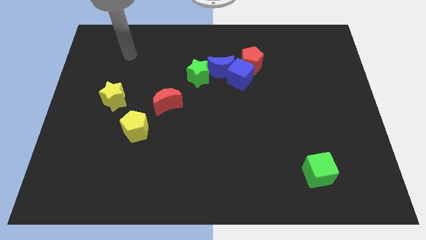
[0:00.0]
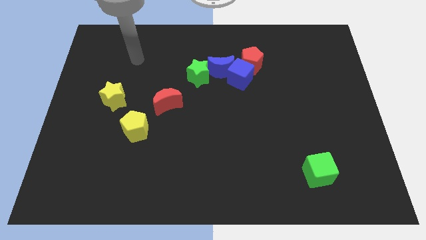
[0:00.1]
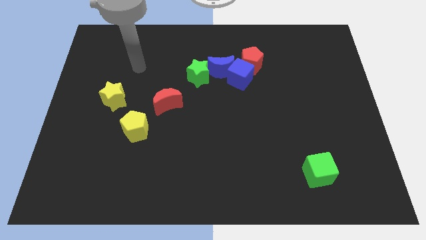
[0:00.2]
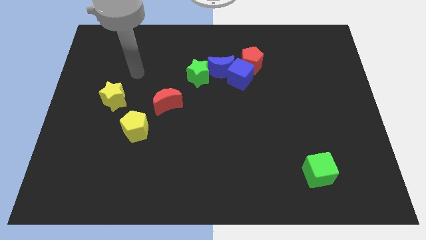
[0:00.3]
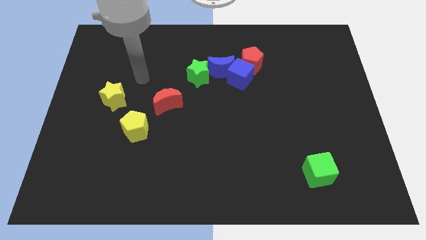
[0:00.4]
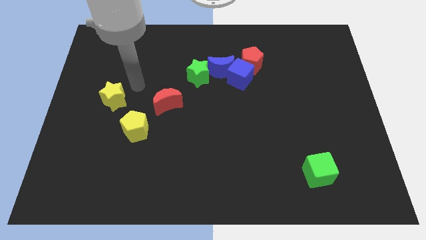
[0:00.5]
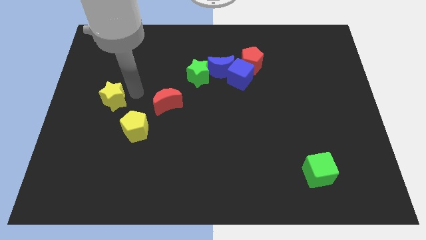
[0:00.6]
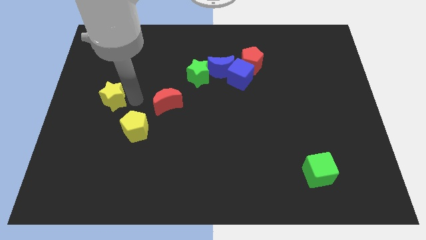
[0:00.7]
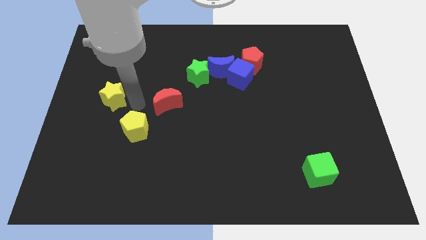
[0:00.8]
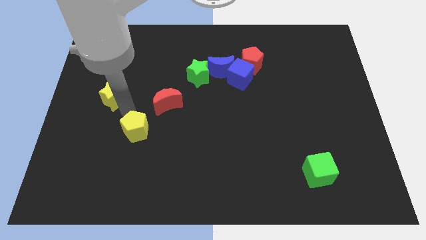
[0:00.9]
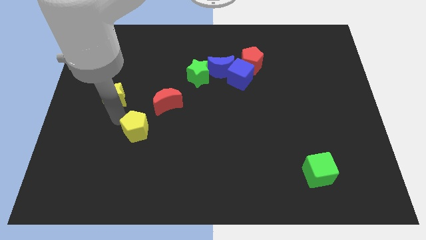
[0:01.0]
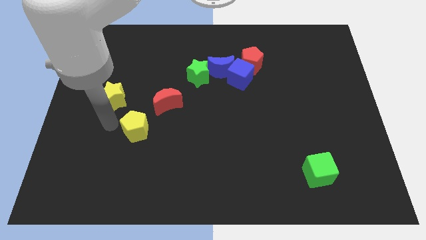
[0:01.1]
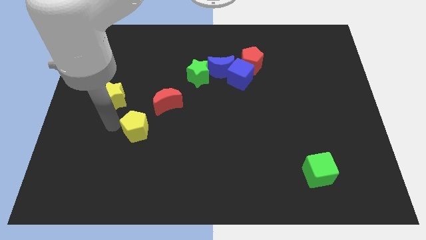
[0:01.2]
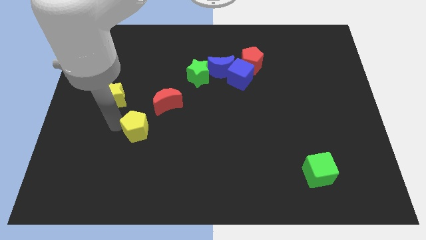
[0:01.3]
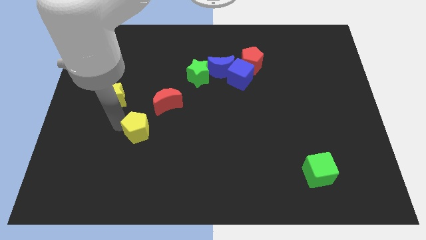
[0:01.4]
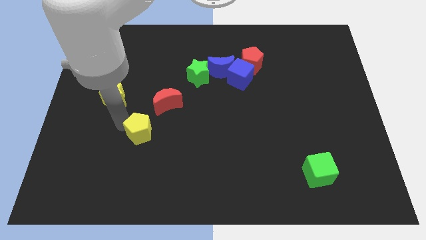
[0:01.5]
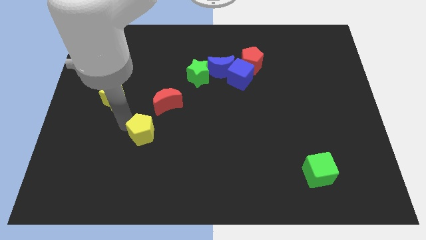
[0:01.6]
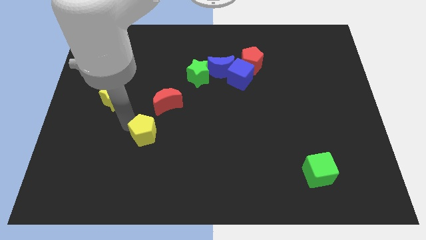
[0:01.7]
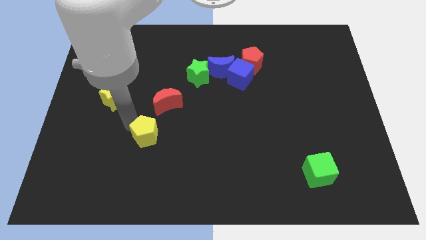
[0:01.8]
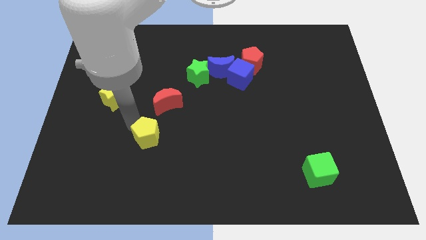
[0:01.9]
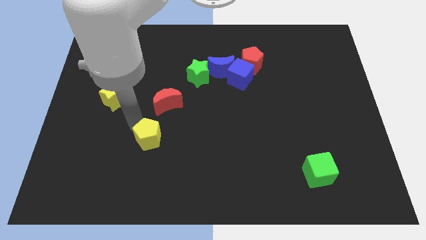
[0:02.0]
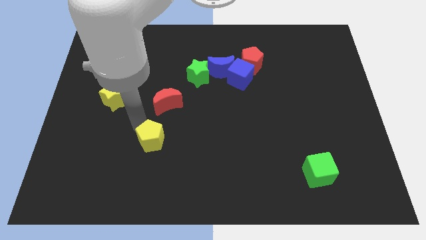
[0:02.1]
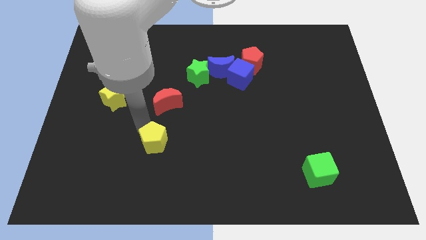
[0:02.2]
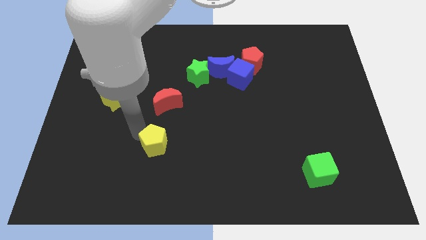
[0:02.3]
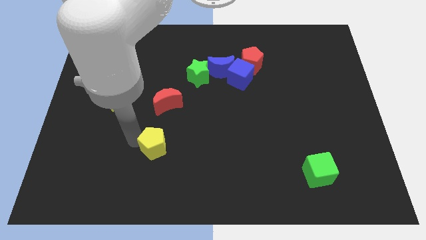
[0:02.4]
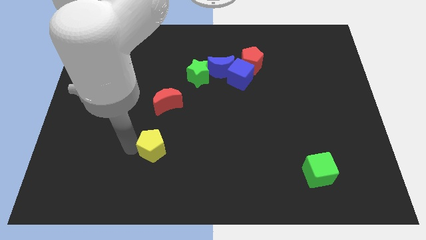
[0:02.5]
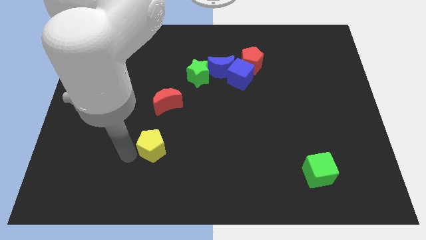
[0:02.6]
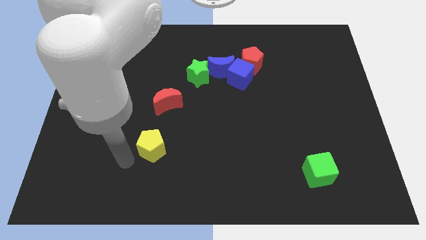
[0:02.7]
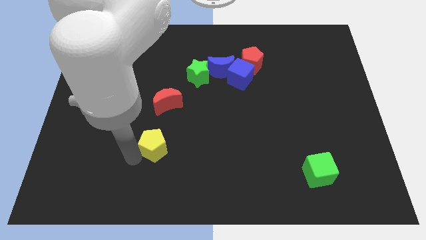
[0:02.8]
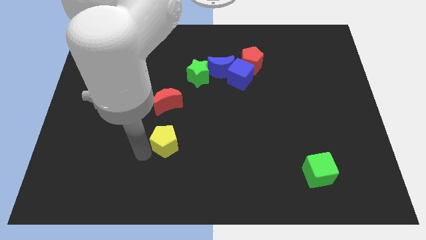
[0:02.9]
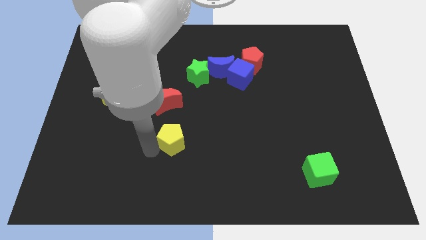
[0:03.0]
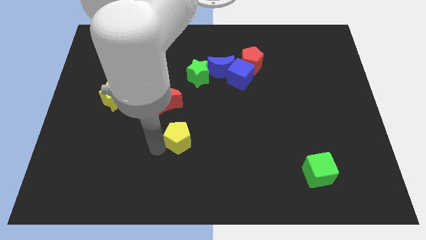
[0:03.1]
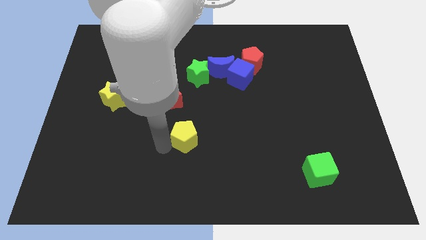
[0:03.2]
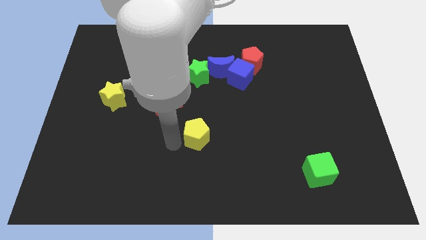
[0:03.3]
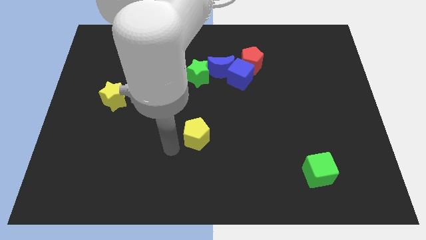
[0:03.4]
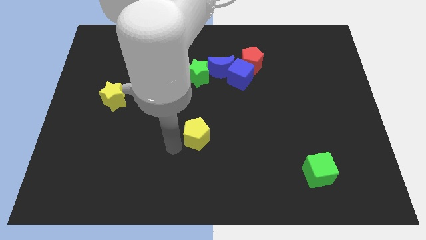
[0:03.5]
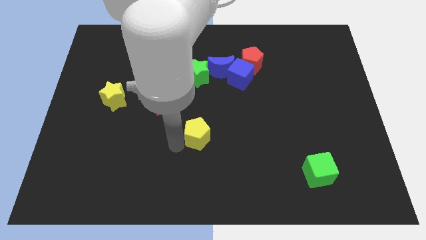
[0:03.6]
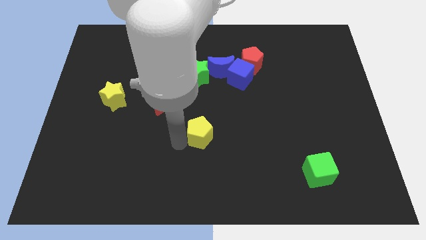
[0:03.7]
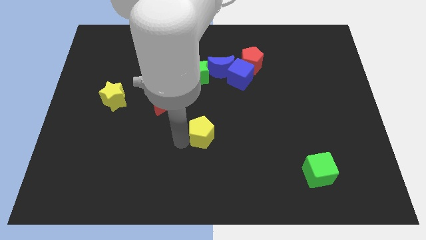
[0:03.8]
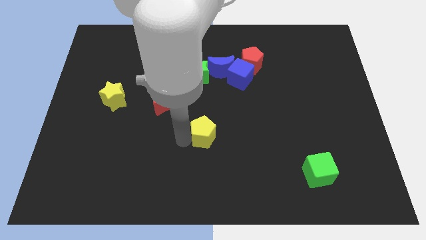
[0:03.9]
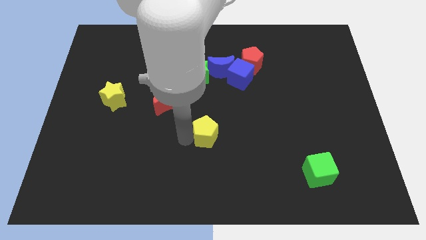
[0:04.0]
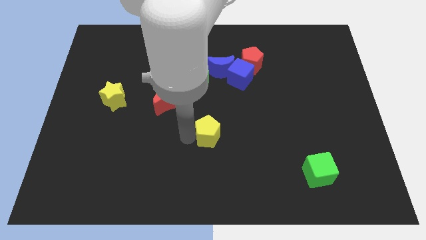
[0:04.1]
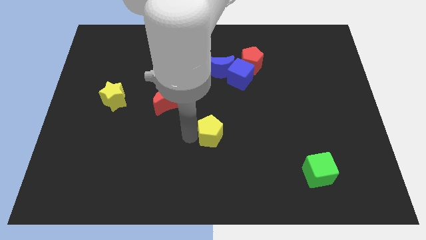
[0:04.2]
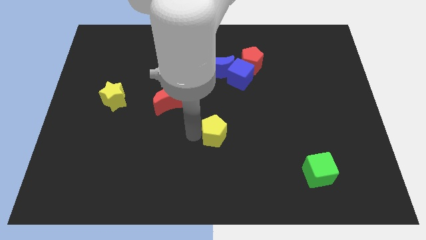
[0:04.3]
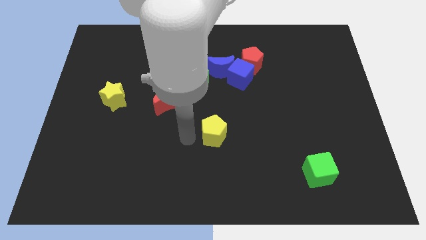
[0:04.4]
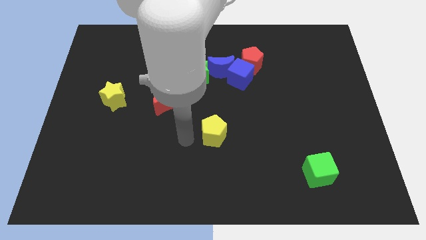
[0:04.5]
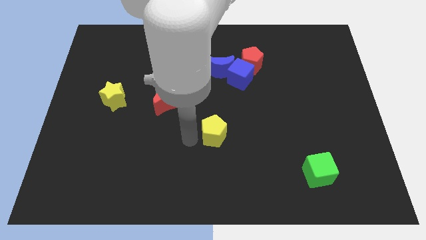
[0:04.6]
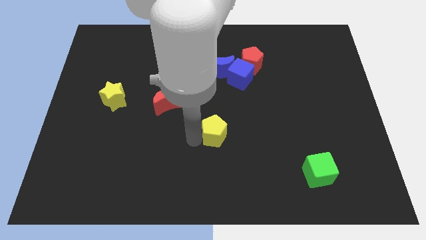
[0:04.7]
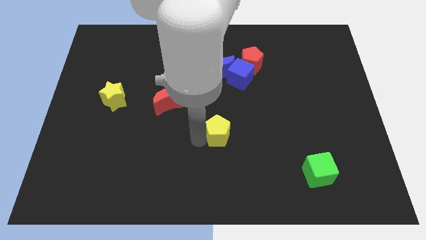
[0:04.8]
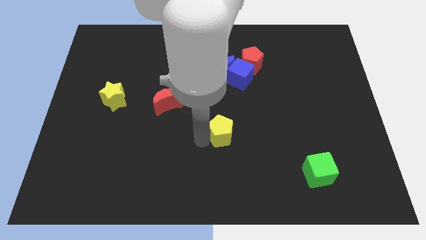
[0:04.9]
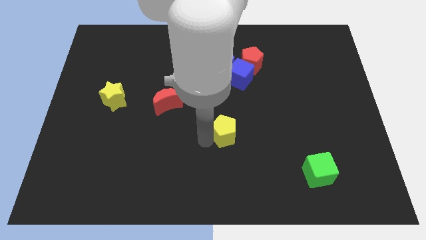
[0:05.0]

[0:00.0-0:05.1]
slide the yellow pentagon to the right

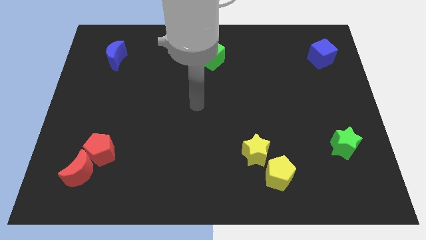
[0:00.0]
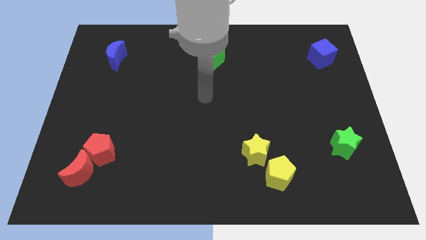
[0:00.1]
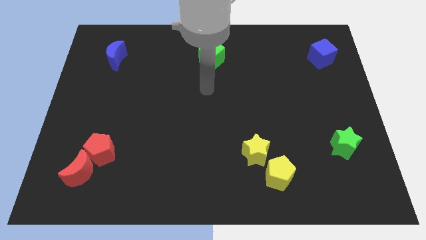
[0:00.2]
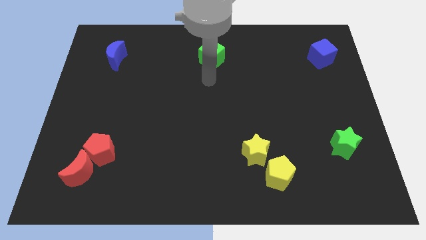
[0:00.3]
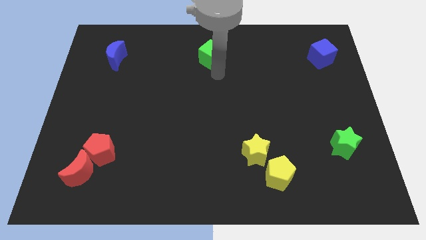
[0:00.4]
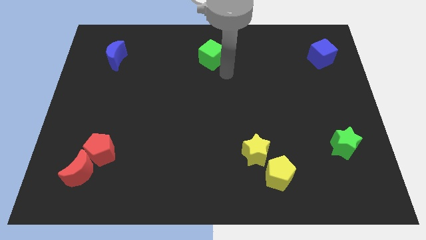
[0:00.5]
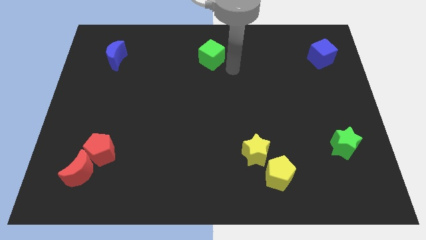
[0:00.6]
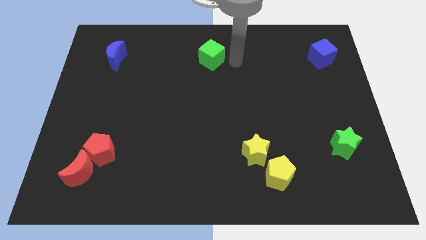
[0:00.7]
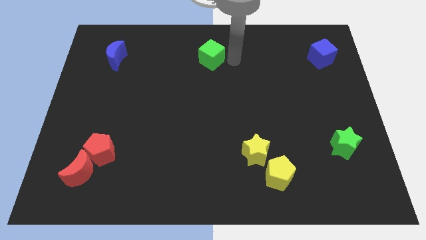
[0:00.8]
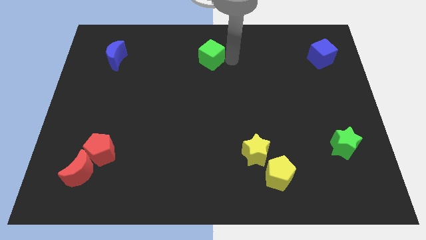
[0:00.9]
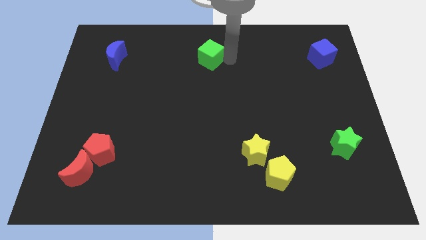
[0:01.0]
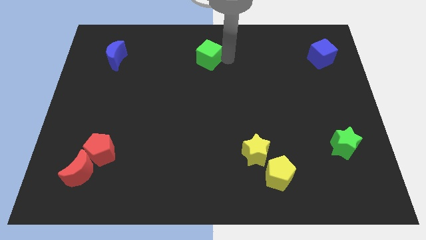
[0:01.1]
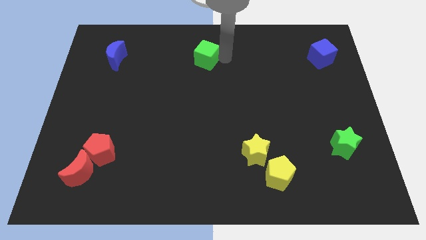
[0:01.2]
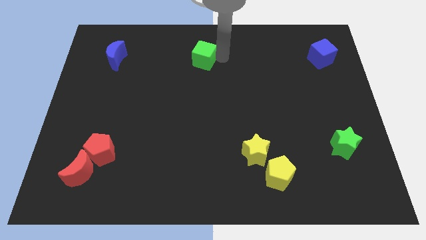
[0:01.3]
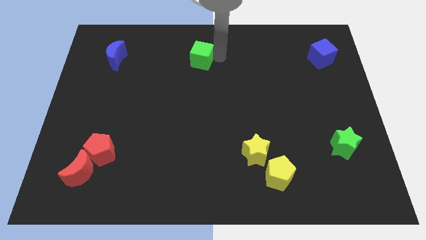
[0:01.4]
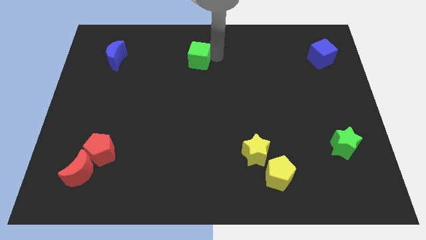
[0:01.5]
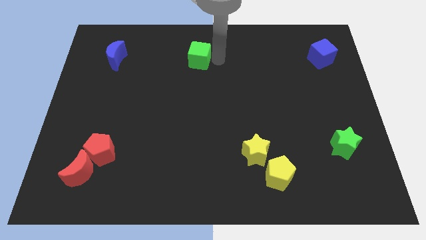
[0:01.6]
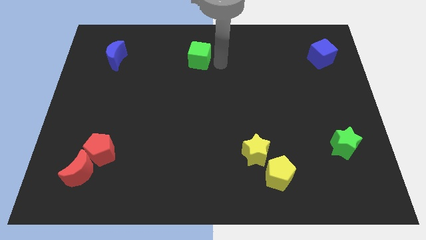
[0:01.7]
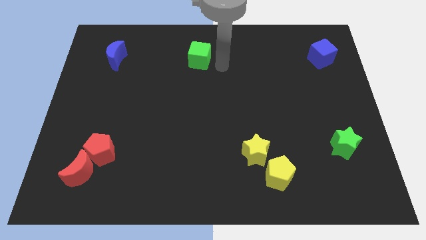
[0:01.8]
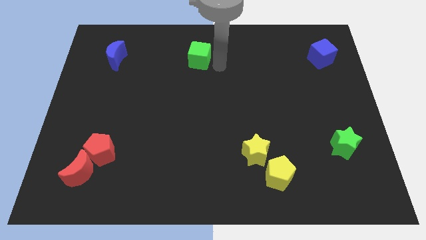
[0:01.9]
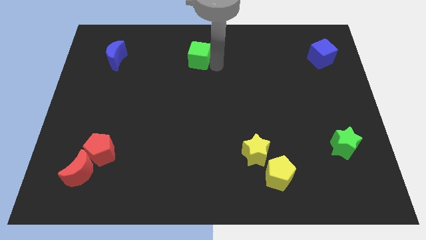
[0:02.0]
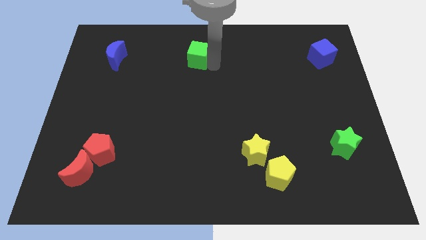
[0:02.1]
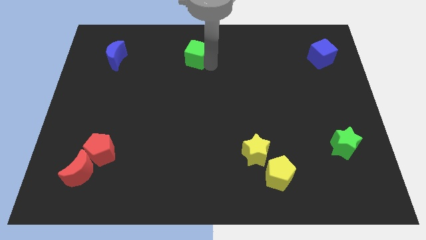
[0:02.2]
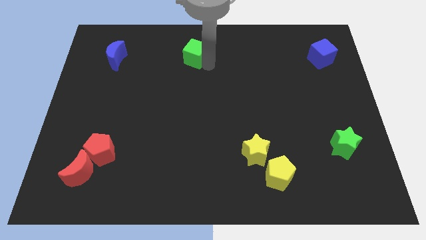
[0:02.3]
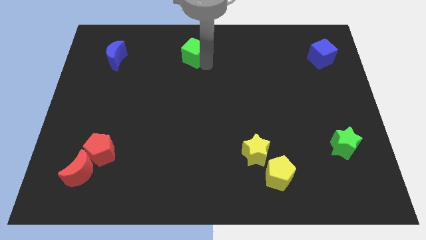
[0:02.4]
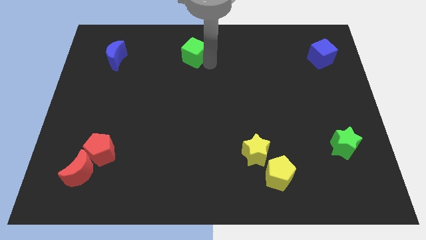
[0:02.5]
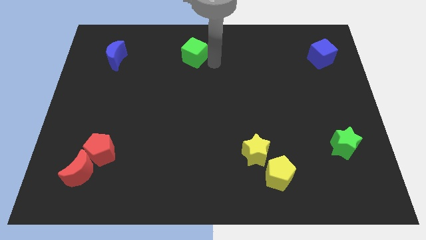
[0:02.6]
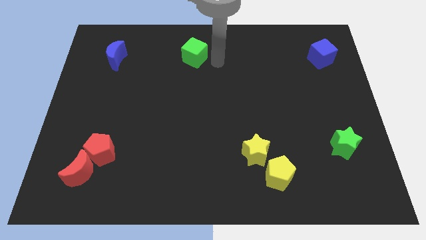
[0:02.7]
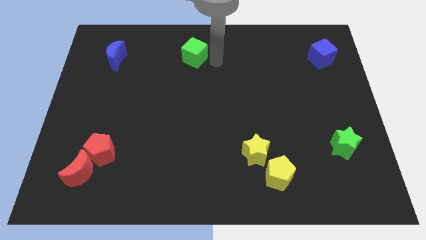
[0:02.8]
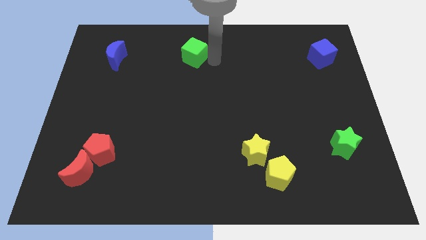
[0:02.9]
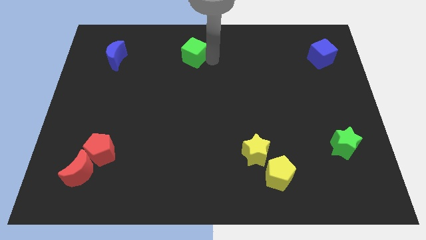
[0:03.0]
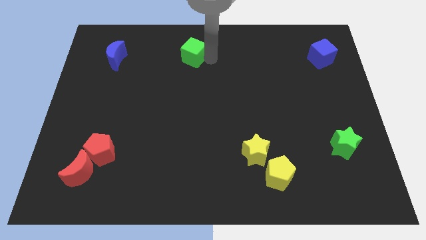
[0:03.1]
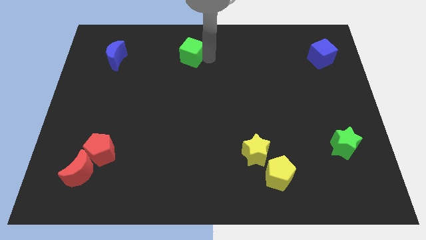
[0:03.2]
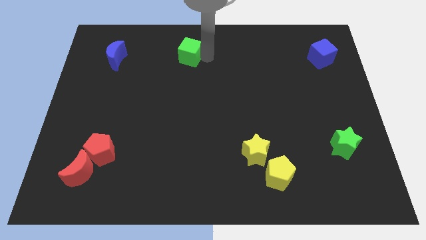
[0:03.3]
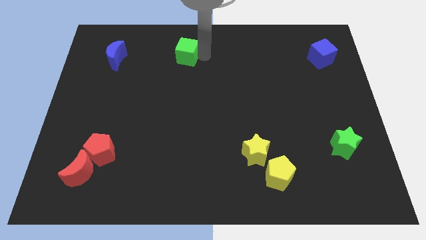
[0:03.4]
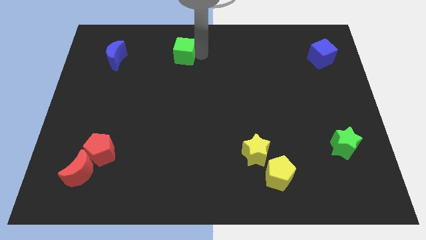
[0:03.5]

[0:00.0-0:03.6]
push the green cube somewhat to the left
